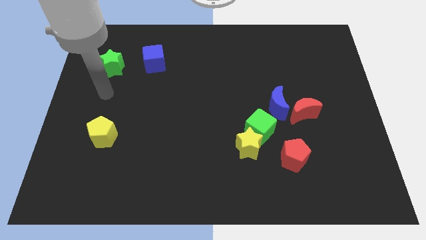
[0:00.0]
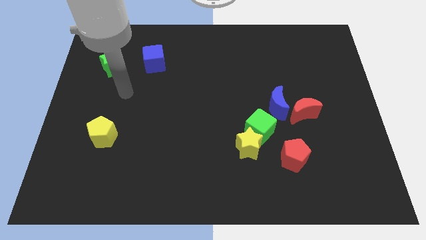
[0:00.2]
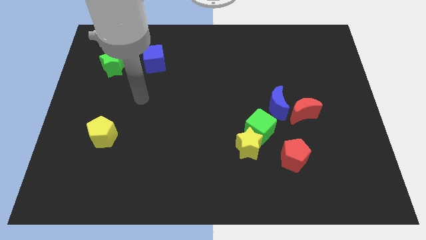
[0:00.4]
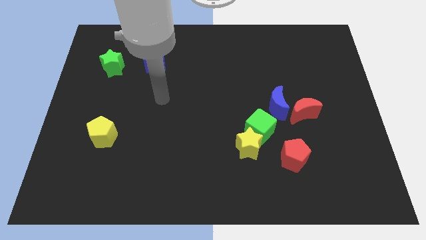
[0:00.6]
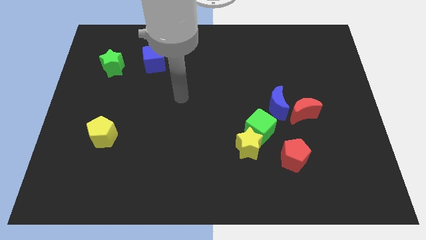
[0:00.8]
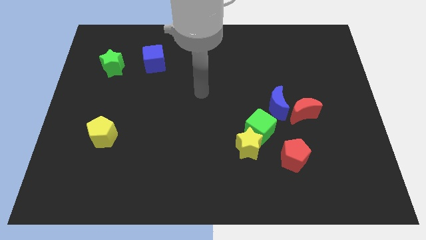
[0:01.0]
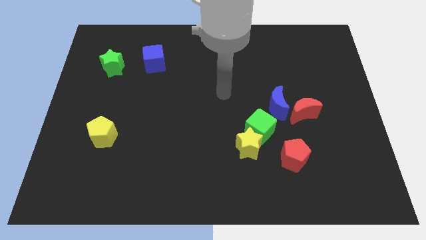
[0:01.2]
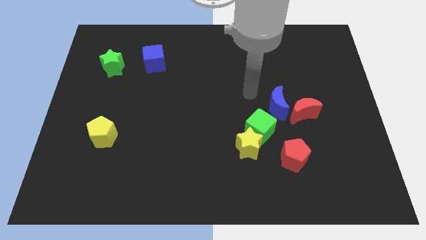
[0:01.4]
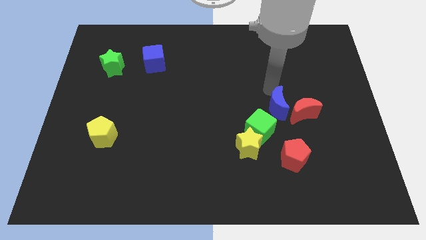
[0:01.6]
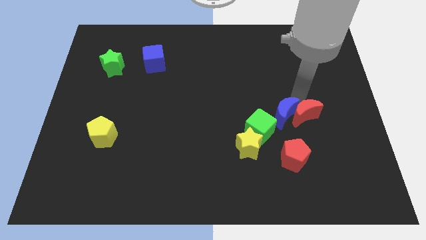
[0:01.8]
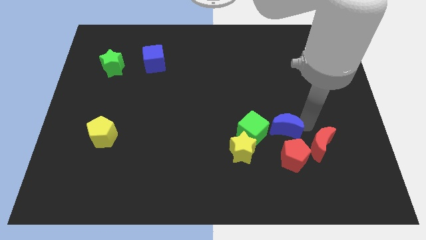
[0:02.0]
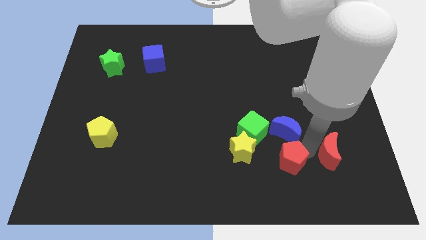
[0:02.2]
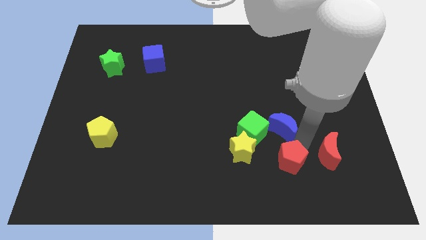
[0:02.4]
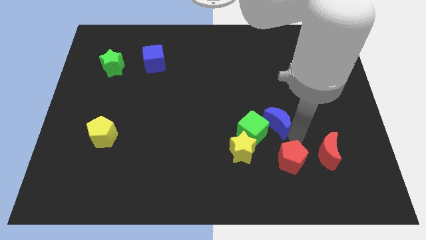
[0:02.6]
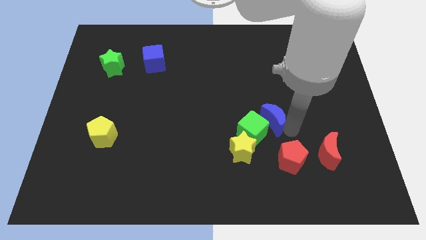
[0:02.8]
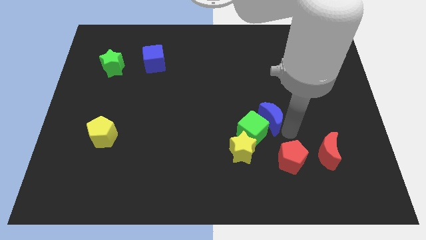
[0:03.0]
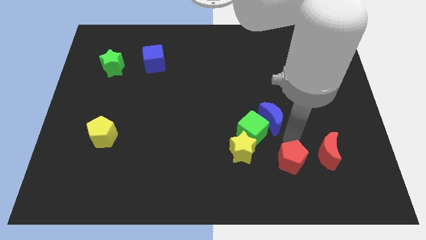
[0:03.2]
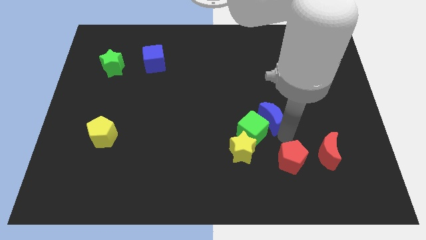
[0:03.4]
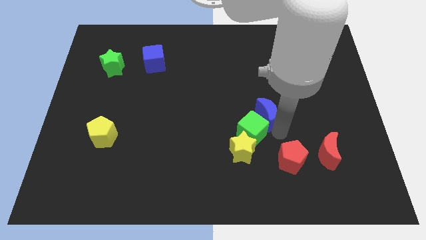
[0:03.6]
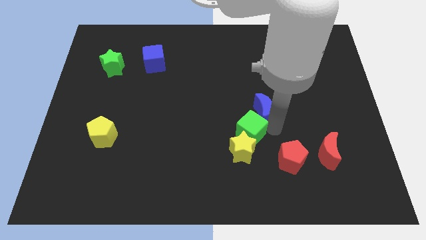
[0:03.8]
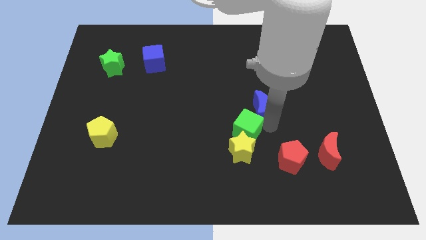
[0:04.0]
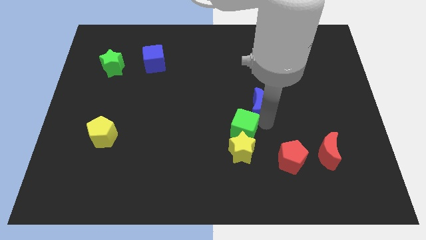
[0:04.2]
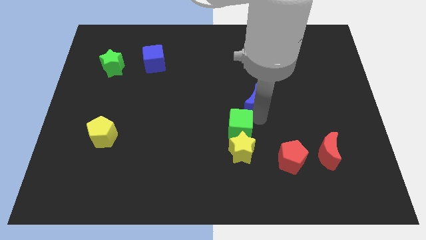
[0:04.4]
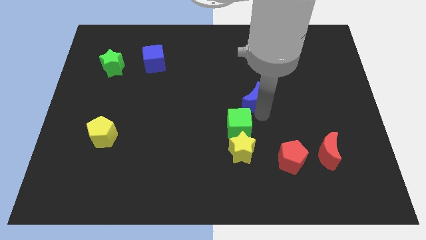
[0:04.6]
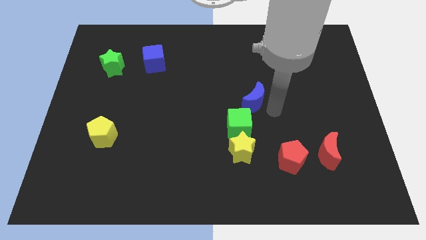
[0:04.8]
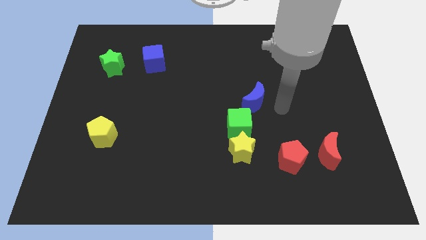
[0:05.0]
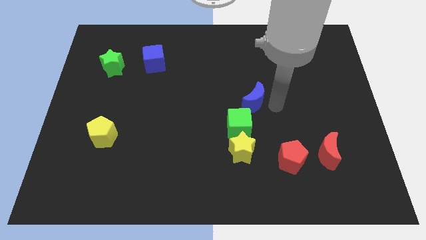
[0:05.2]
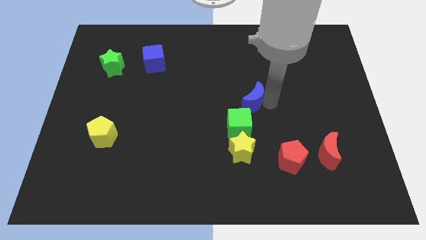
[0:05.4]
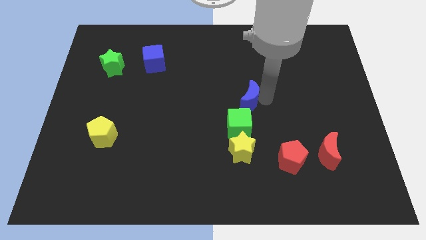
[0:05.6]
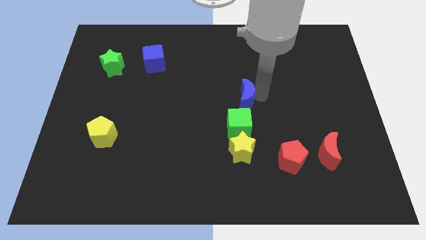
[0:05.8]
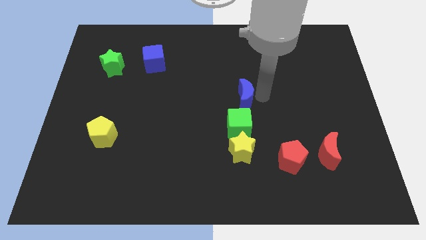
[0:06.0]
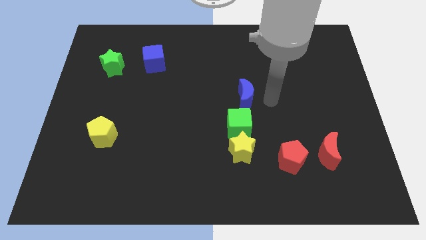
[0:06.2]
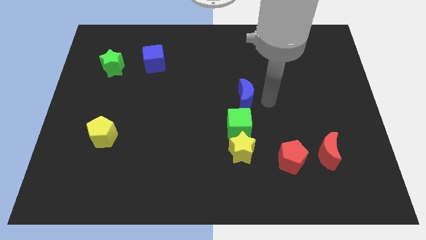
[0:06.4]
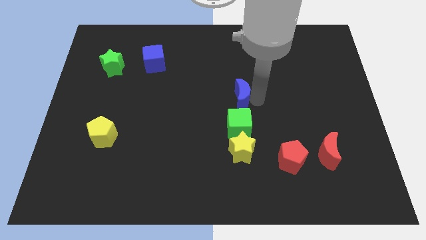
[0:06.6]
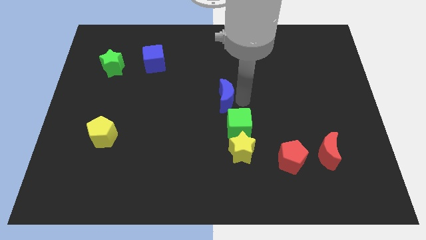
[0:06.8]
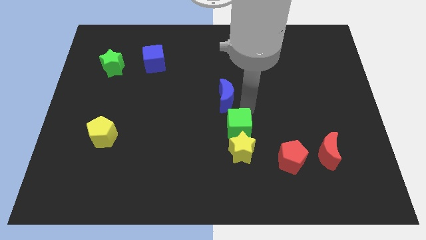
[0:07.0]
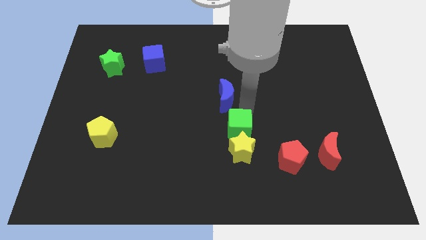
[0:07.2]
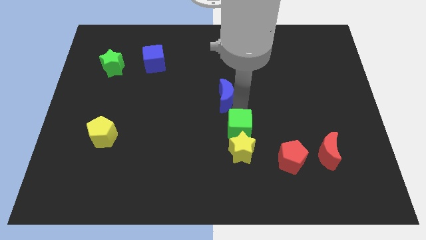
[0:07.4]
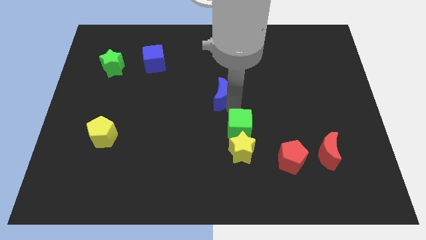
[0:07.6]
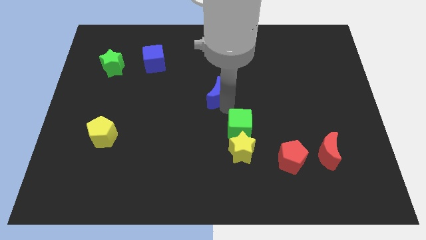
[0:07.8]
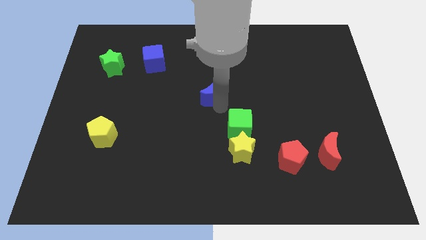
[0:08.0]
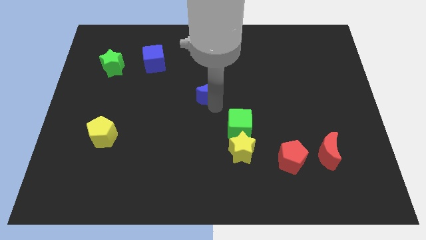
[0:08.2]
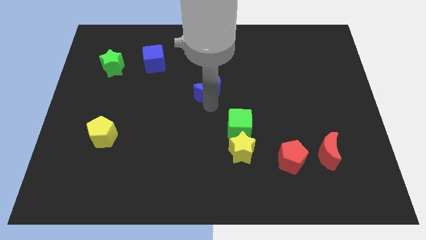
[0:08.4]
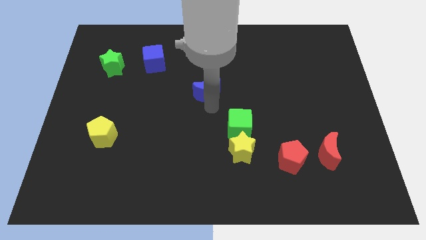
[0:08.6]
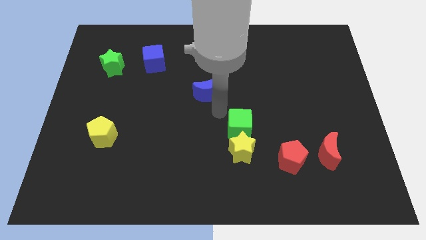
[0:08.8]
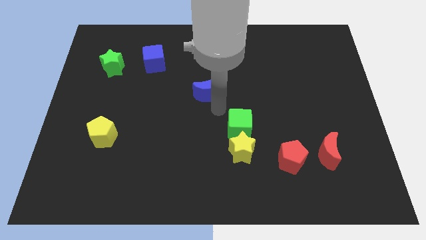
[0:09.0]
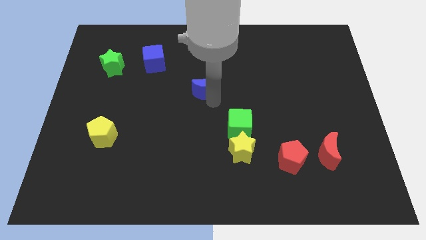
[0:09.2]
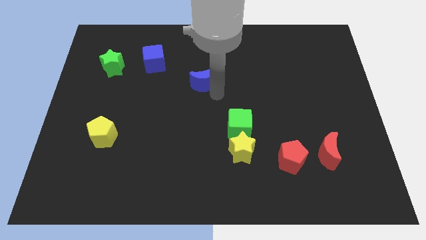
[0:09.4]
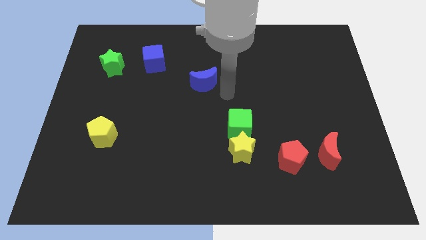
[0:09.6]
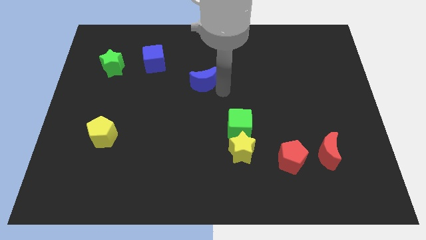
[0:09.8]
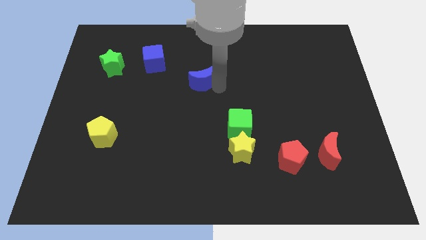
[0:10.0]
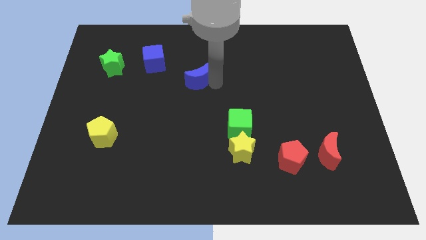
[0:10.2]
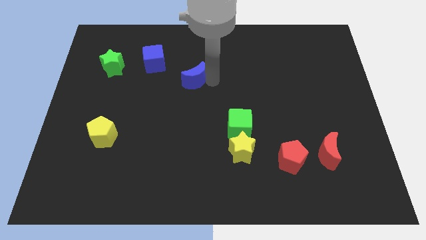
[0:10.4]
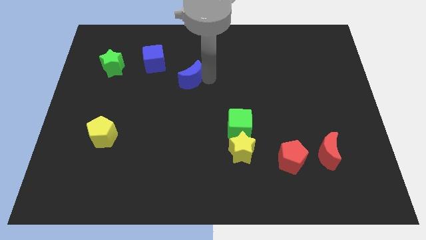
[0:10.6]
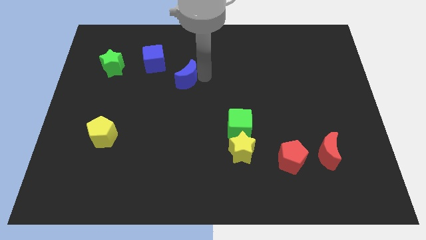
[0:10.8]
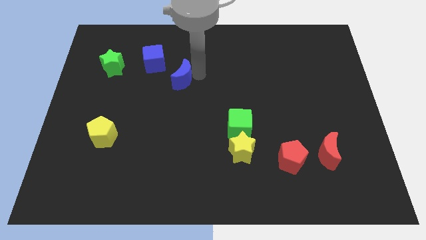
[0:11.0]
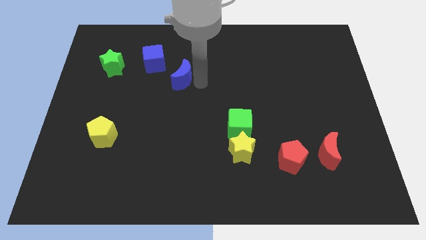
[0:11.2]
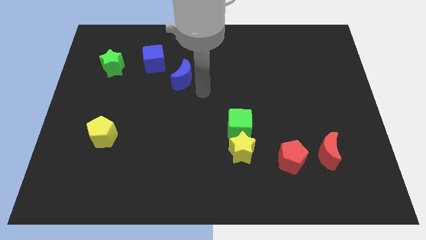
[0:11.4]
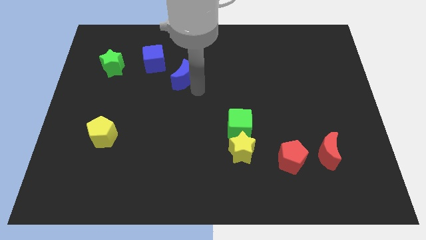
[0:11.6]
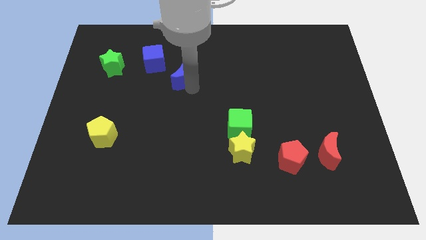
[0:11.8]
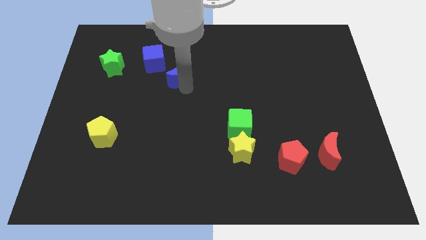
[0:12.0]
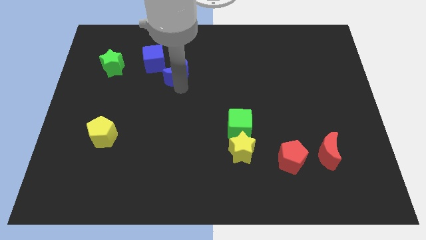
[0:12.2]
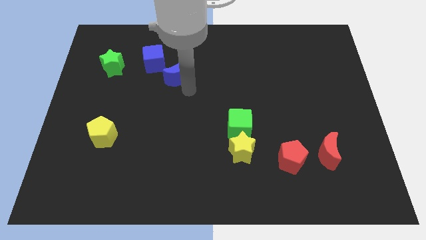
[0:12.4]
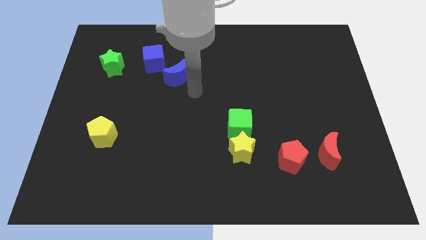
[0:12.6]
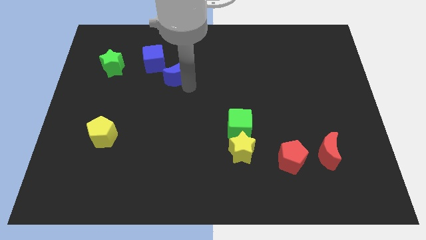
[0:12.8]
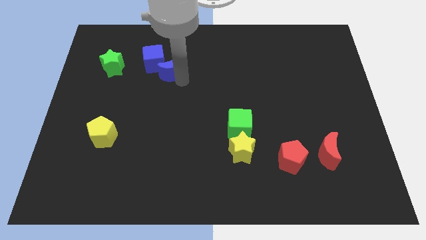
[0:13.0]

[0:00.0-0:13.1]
move the blue moon towards the blue cube
